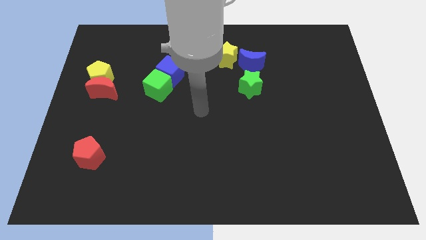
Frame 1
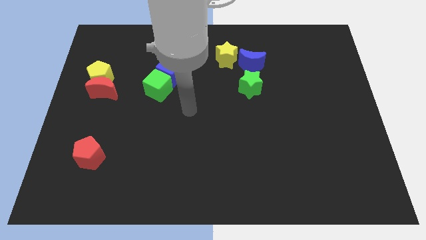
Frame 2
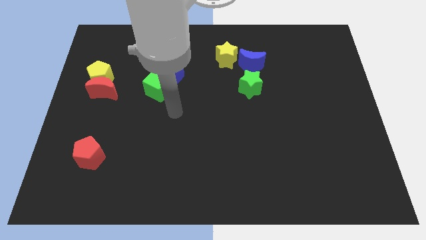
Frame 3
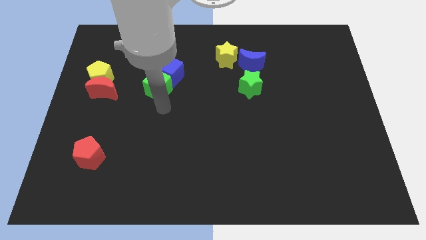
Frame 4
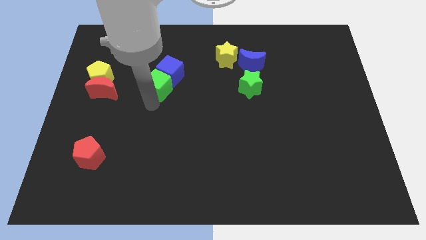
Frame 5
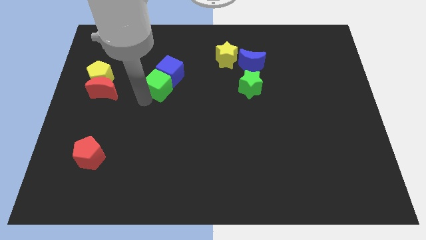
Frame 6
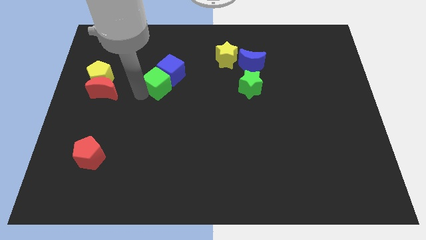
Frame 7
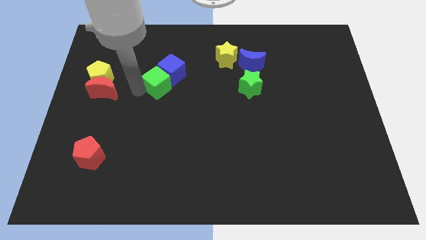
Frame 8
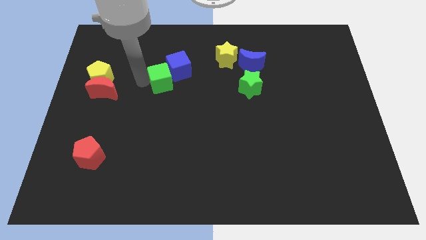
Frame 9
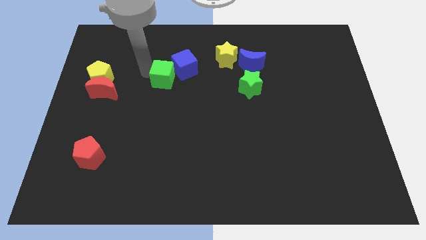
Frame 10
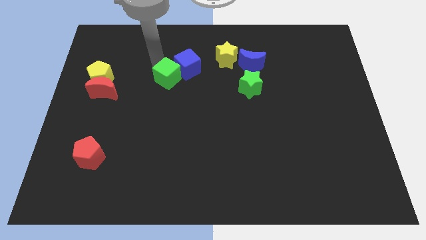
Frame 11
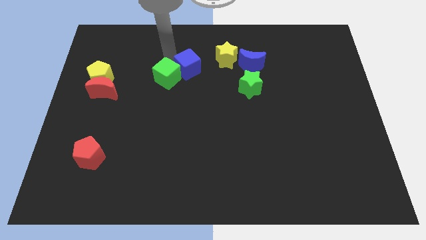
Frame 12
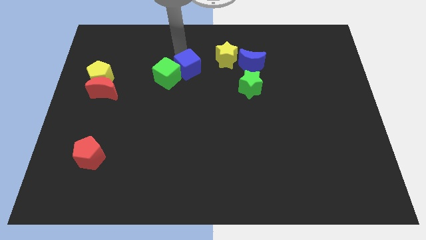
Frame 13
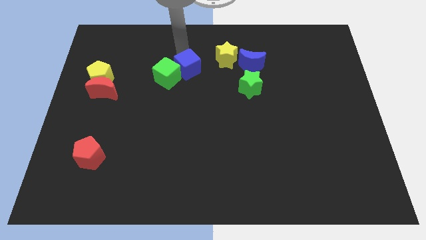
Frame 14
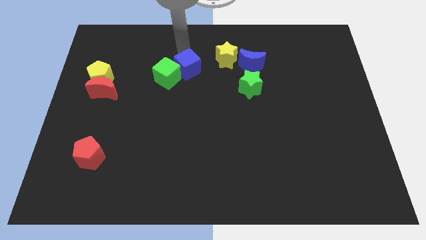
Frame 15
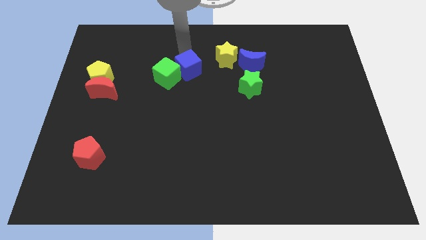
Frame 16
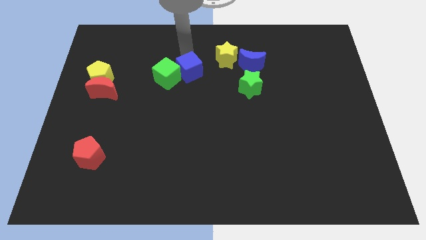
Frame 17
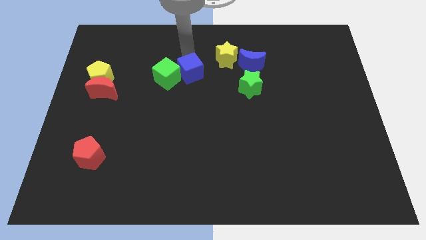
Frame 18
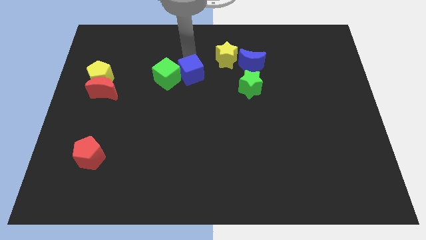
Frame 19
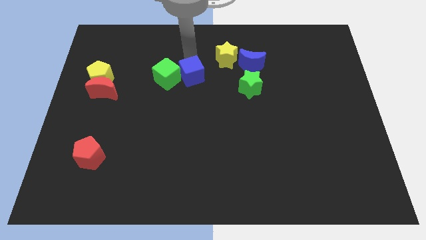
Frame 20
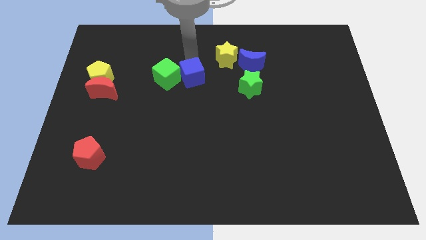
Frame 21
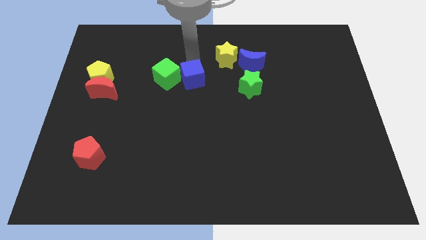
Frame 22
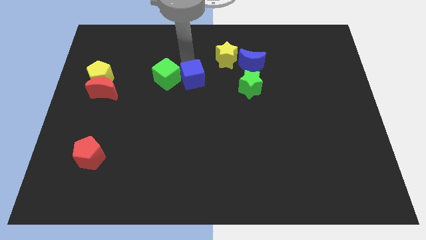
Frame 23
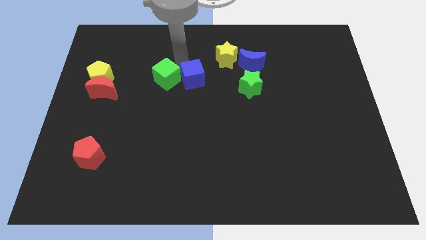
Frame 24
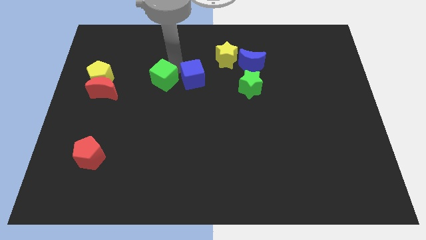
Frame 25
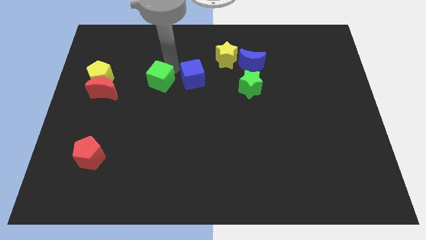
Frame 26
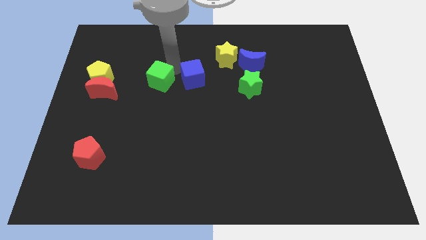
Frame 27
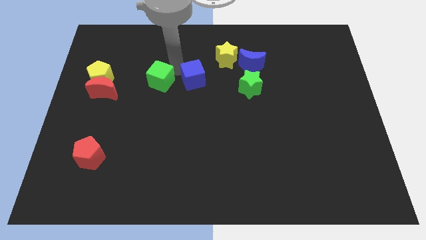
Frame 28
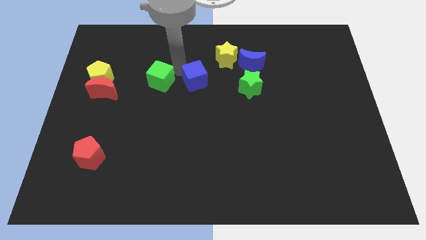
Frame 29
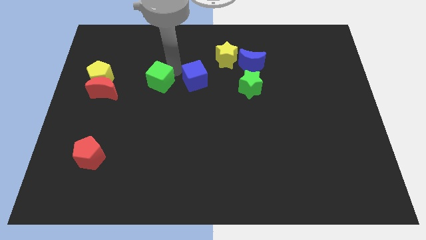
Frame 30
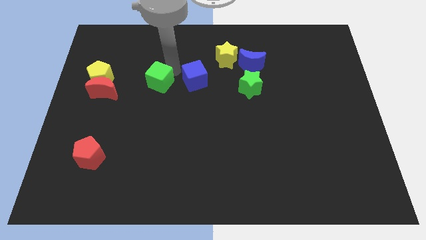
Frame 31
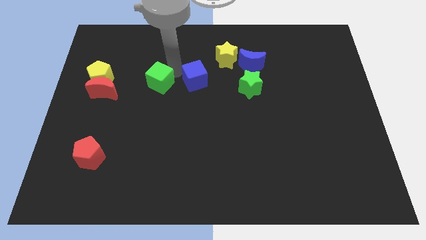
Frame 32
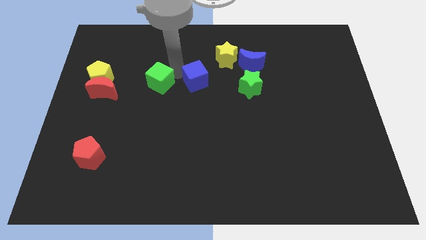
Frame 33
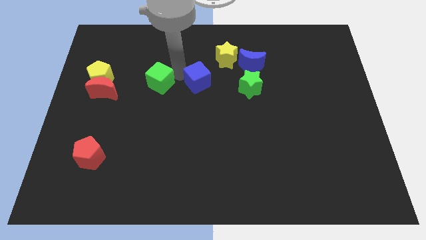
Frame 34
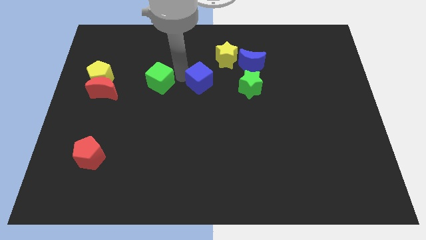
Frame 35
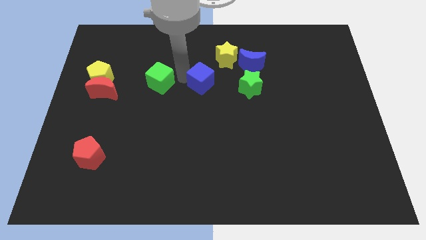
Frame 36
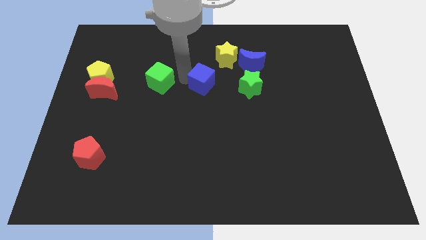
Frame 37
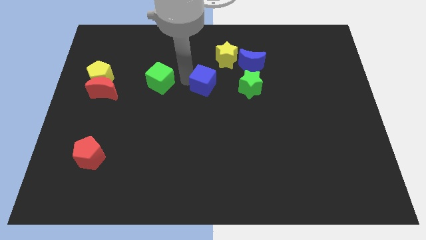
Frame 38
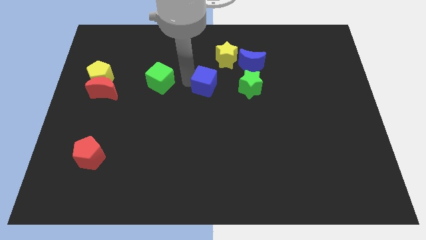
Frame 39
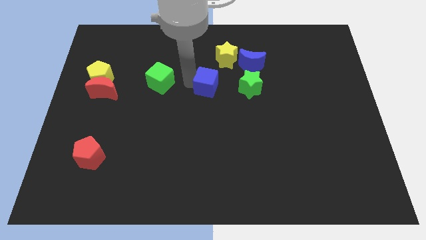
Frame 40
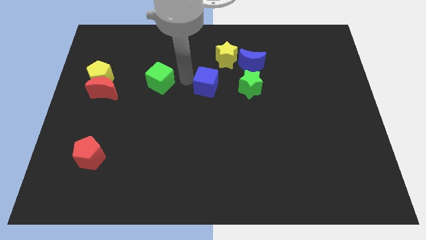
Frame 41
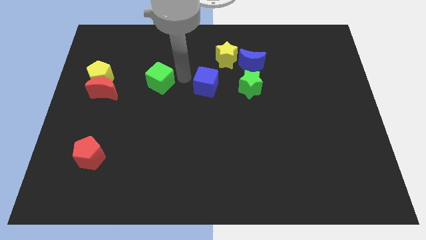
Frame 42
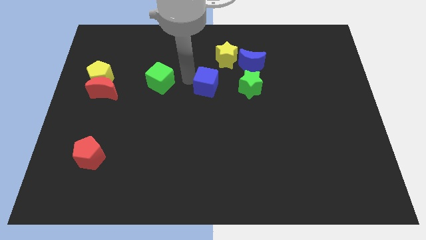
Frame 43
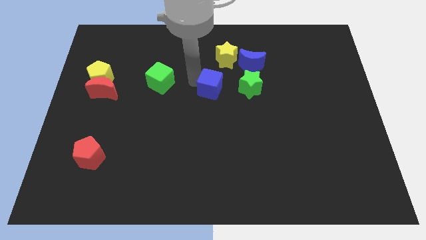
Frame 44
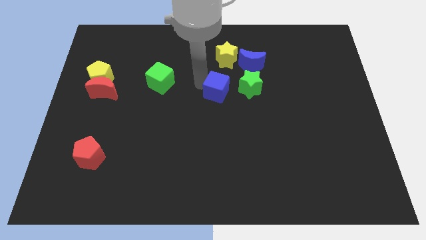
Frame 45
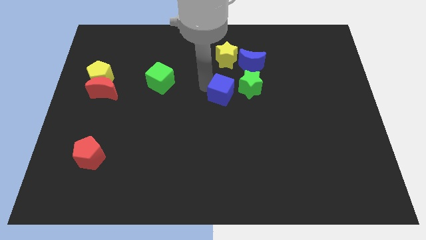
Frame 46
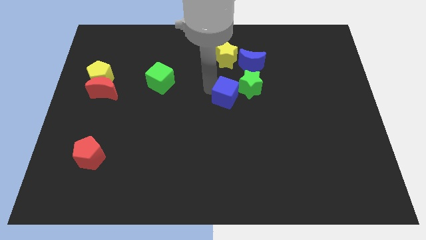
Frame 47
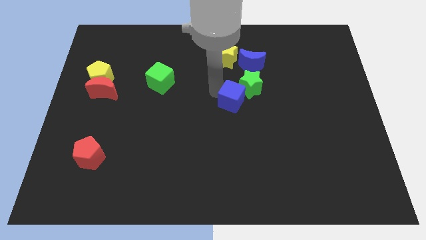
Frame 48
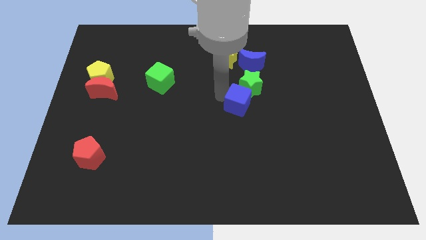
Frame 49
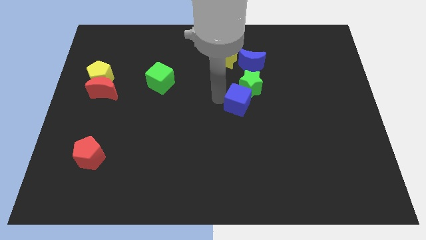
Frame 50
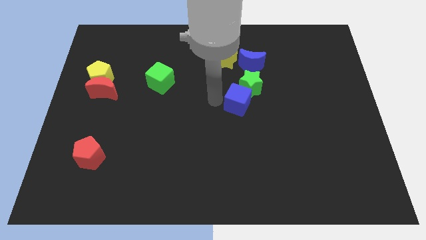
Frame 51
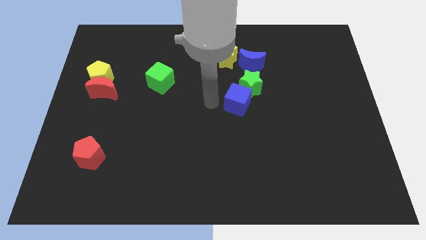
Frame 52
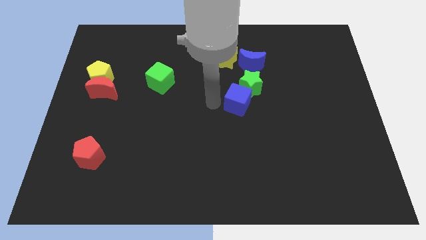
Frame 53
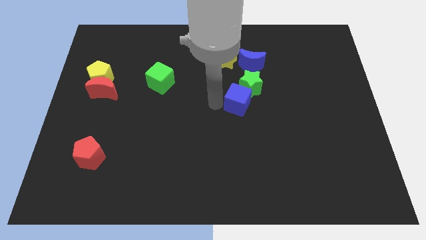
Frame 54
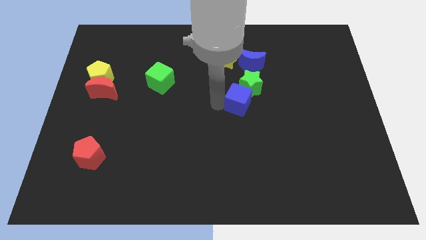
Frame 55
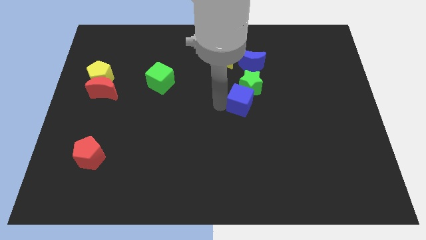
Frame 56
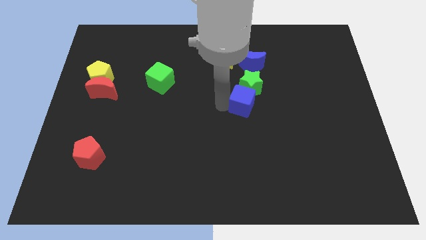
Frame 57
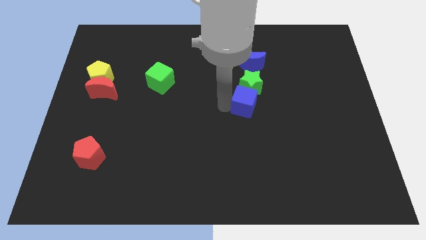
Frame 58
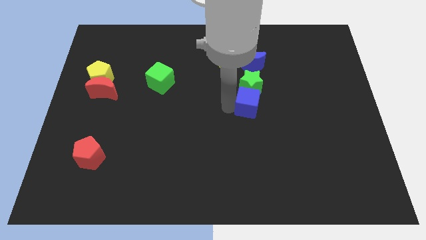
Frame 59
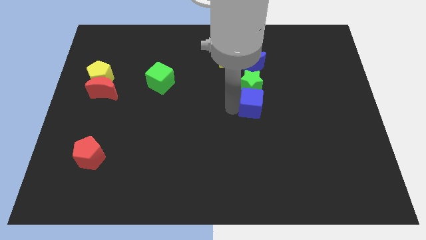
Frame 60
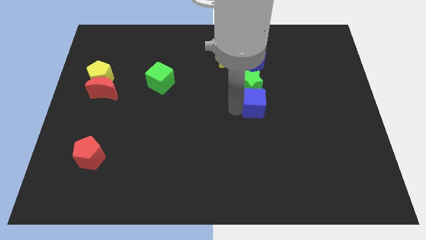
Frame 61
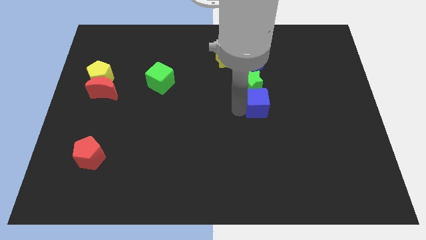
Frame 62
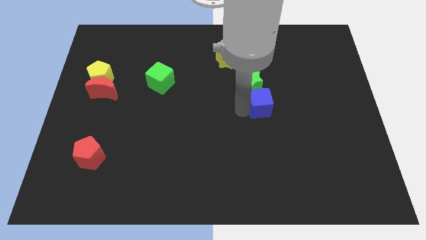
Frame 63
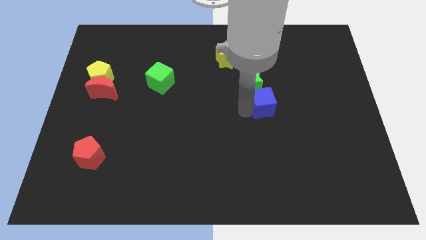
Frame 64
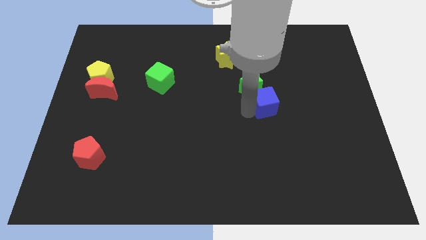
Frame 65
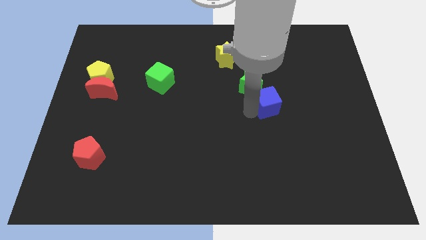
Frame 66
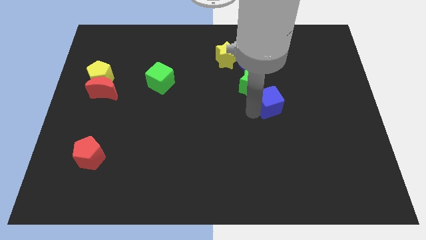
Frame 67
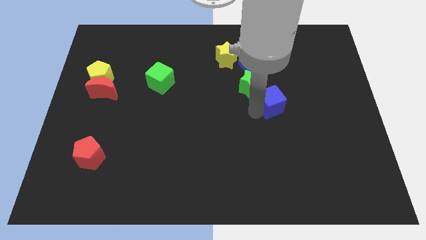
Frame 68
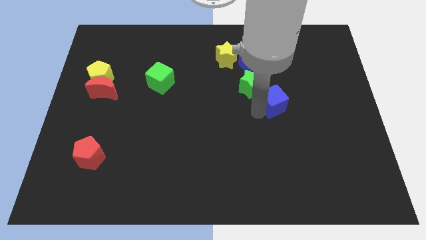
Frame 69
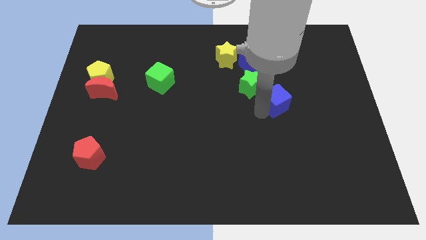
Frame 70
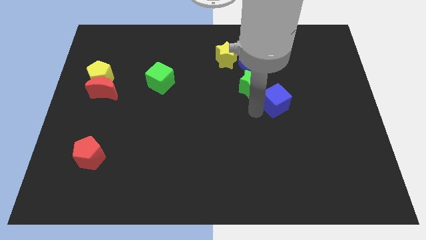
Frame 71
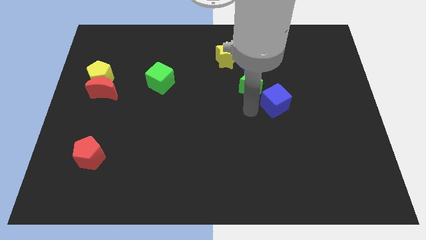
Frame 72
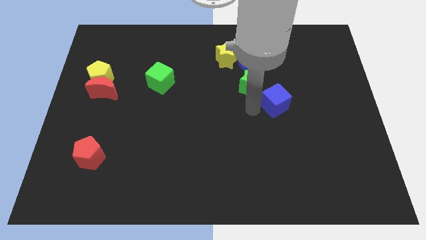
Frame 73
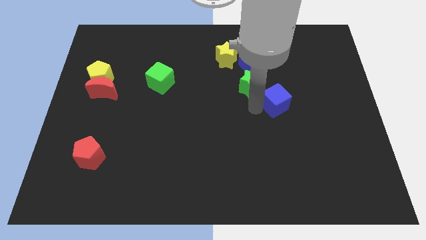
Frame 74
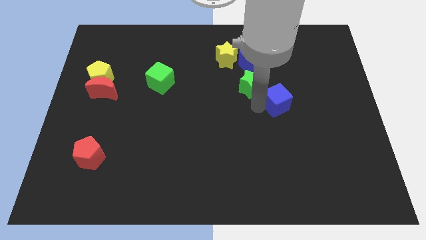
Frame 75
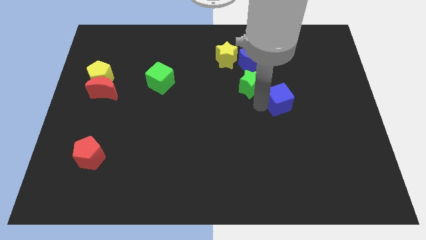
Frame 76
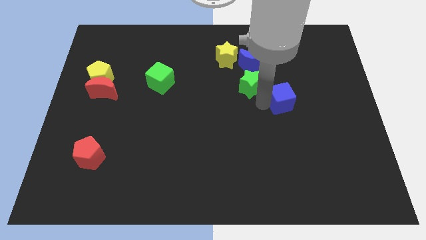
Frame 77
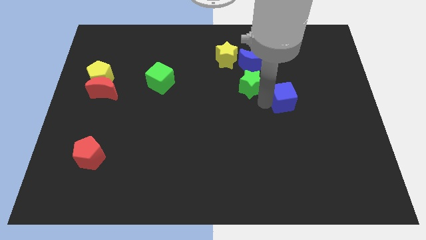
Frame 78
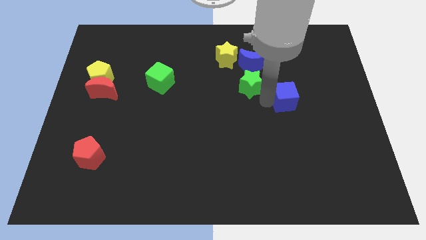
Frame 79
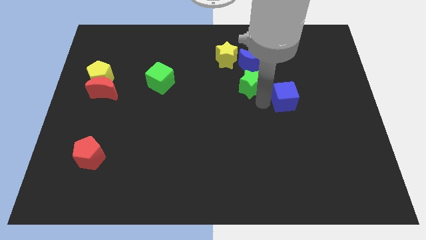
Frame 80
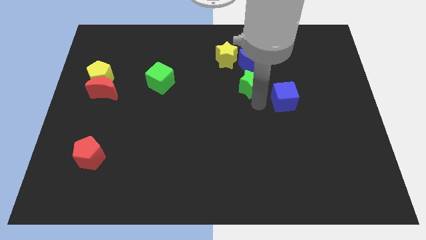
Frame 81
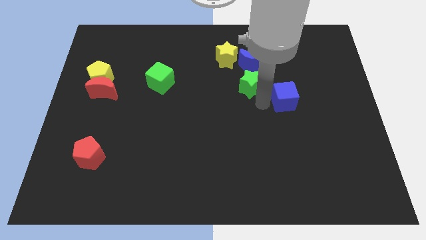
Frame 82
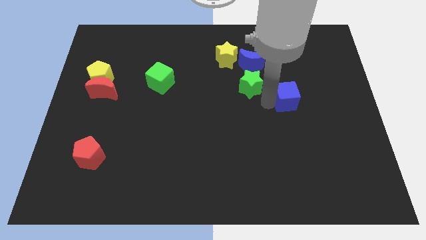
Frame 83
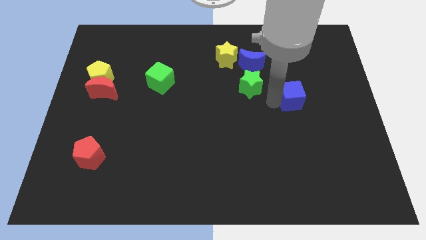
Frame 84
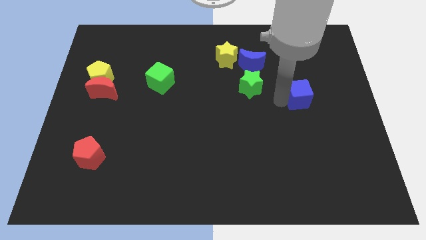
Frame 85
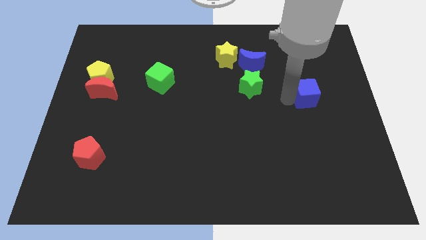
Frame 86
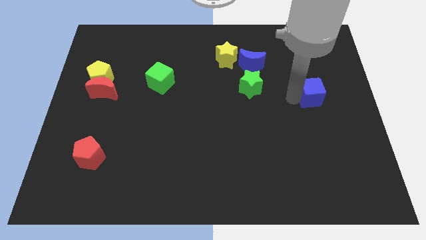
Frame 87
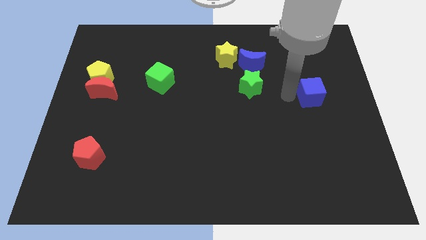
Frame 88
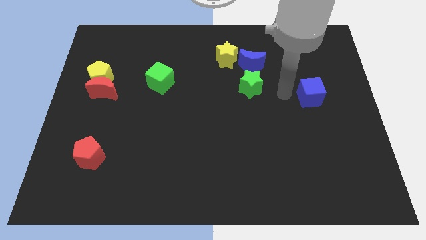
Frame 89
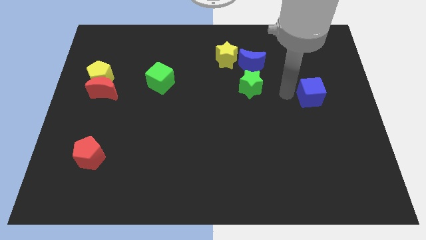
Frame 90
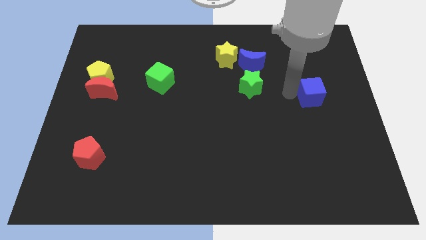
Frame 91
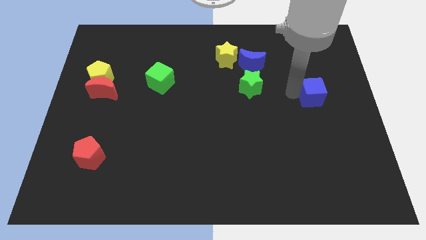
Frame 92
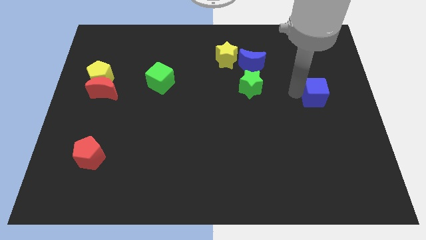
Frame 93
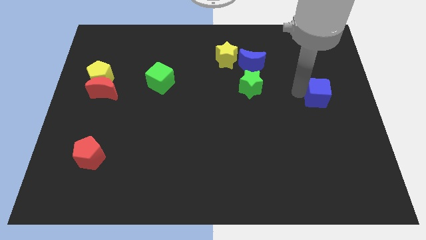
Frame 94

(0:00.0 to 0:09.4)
put the blue cube to the right side of the board
